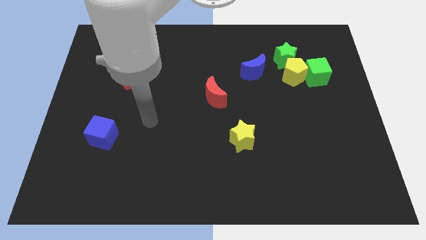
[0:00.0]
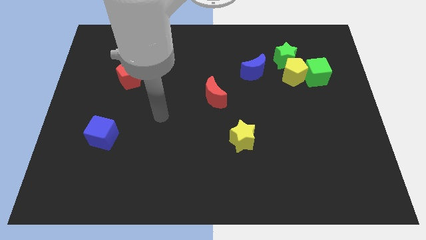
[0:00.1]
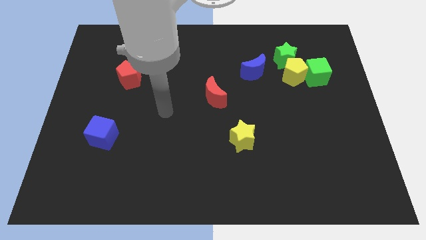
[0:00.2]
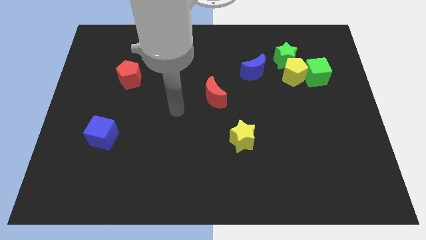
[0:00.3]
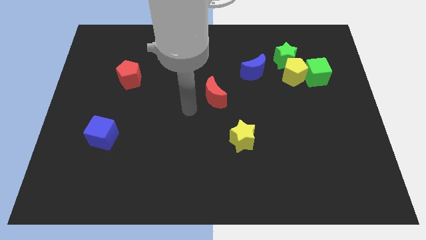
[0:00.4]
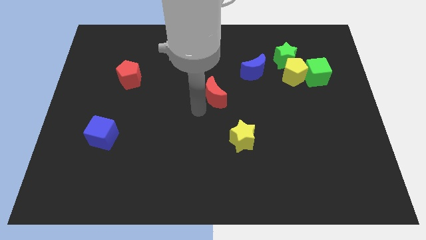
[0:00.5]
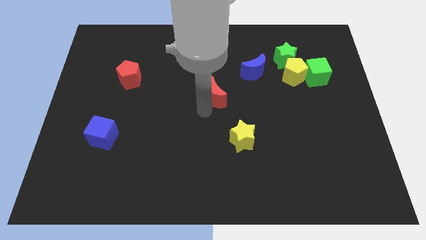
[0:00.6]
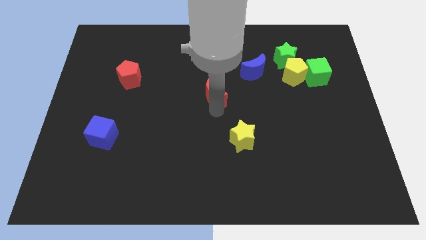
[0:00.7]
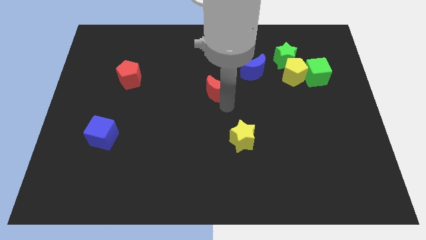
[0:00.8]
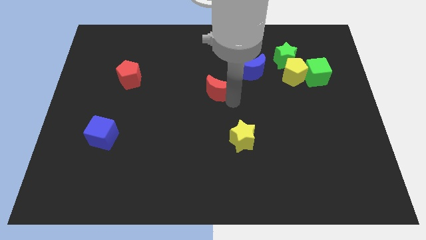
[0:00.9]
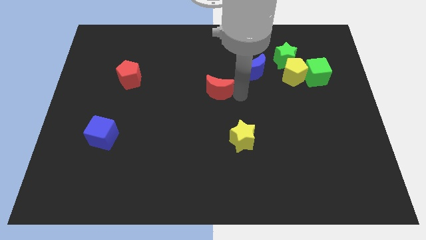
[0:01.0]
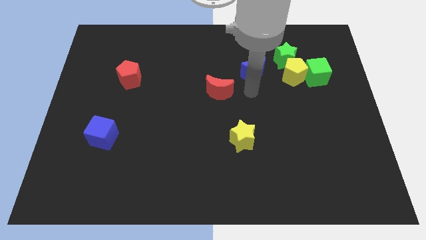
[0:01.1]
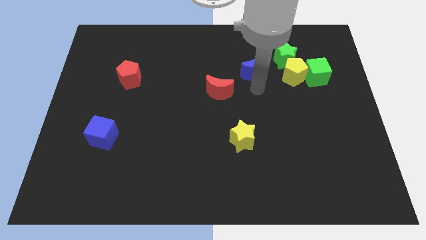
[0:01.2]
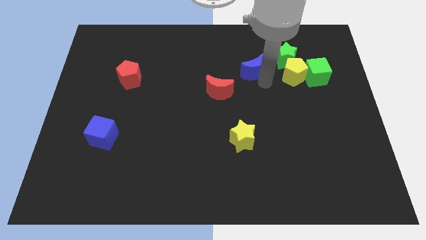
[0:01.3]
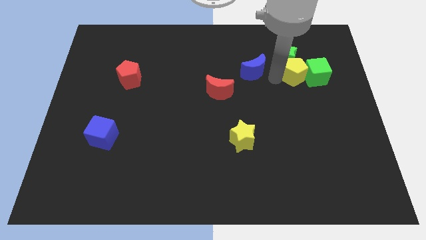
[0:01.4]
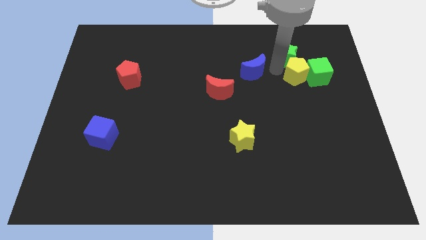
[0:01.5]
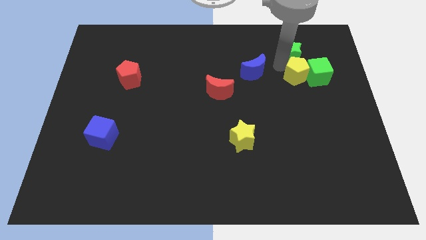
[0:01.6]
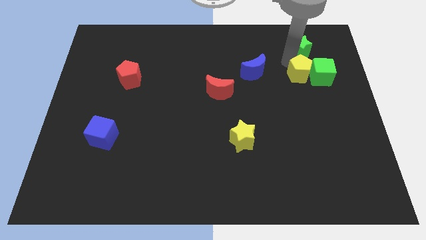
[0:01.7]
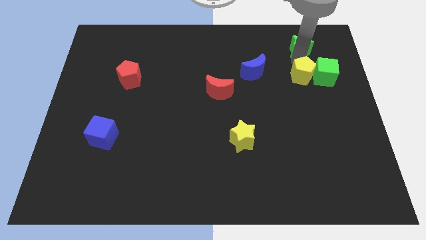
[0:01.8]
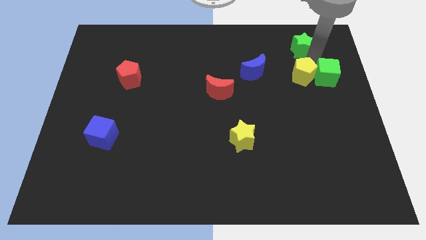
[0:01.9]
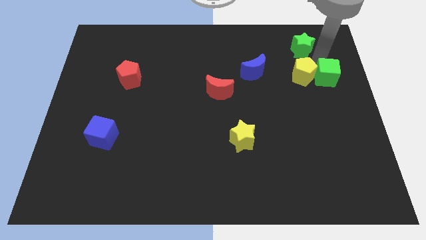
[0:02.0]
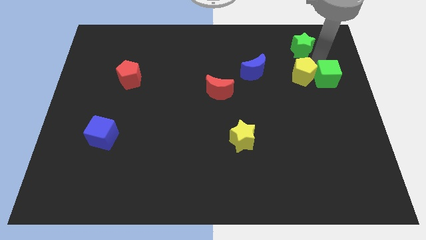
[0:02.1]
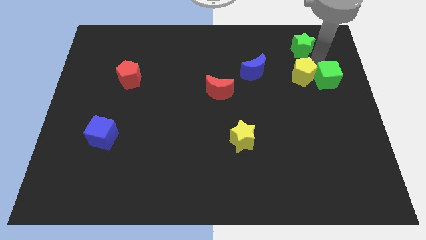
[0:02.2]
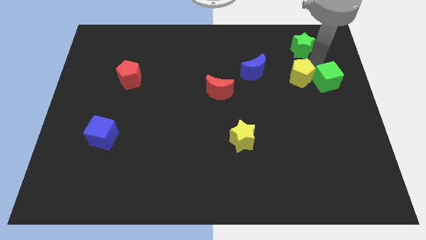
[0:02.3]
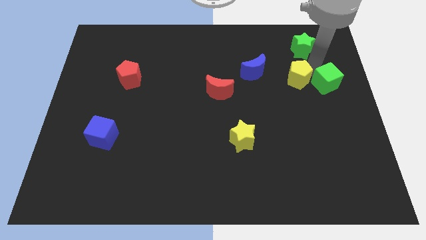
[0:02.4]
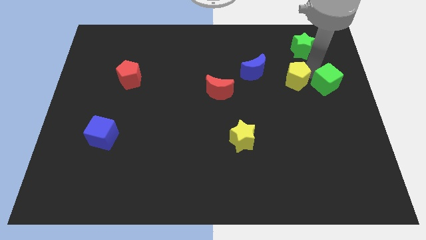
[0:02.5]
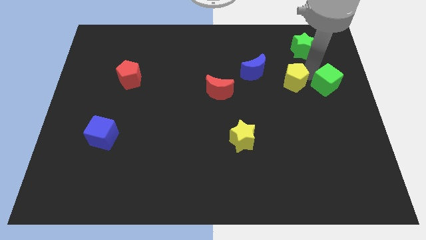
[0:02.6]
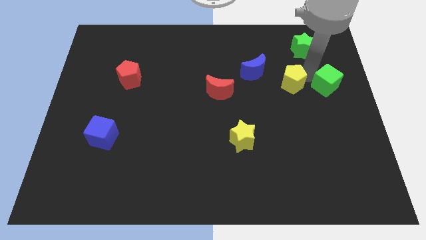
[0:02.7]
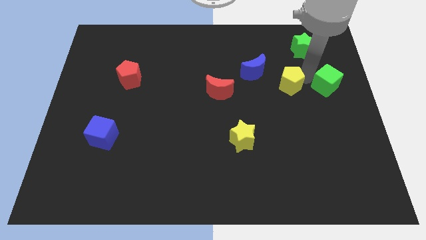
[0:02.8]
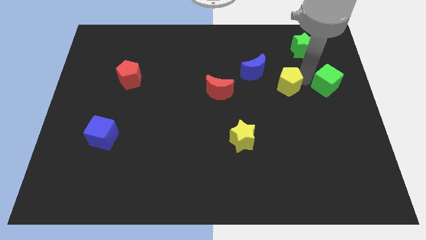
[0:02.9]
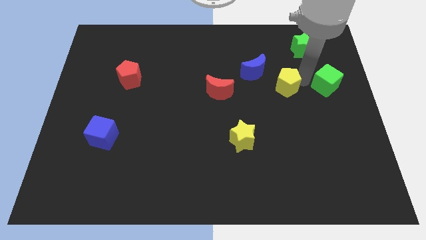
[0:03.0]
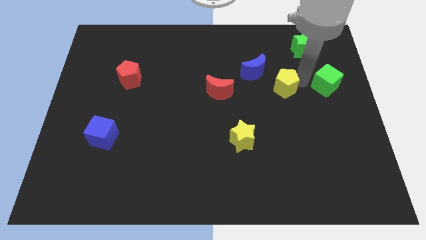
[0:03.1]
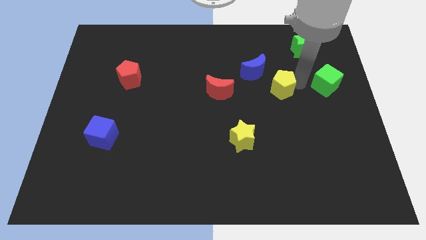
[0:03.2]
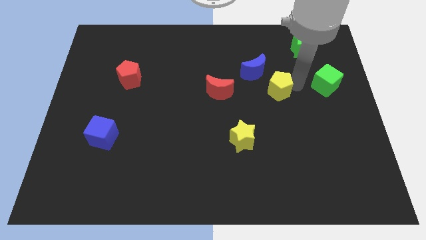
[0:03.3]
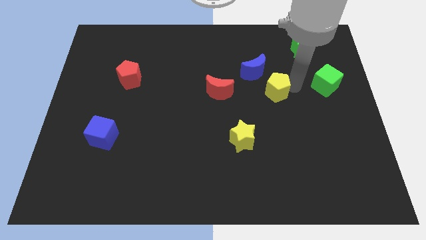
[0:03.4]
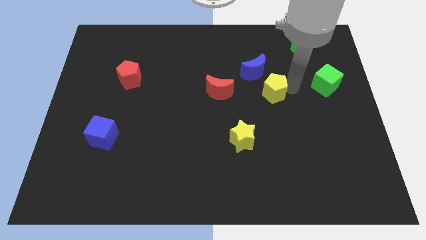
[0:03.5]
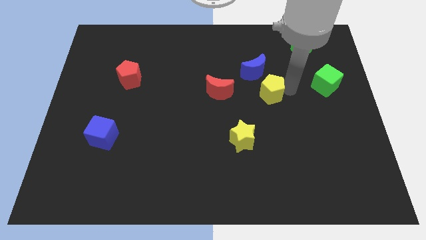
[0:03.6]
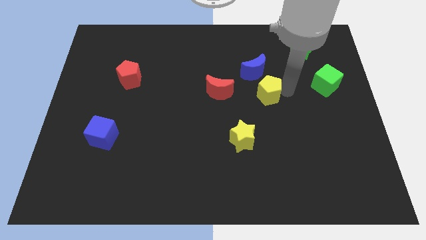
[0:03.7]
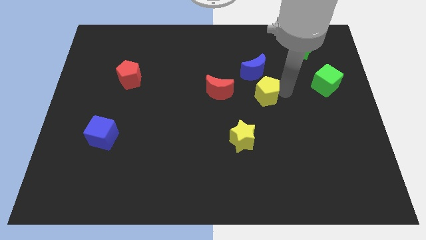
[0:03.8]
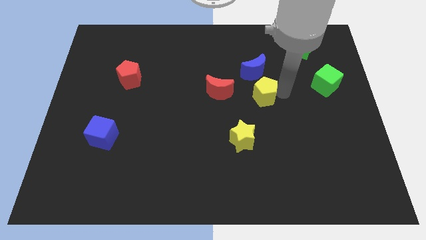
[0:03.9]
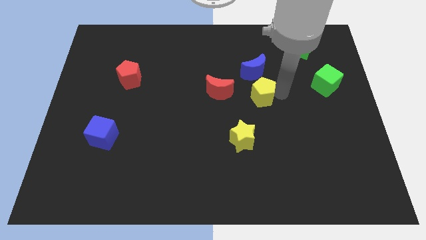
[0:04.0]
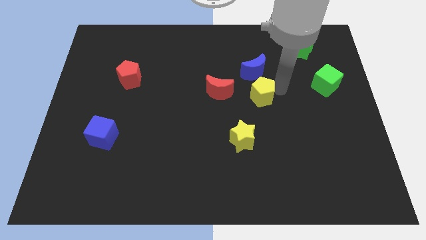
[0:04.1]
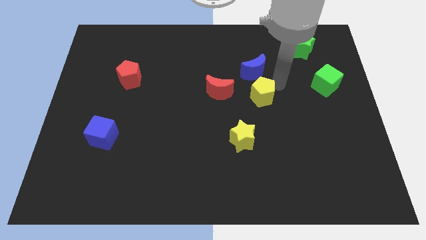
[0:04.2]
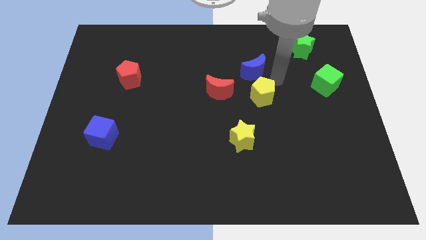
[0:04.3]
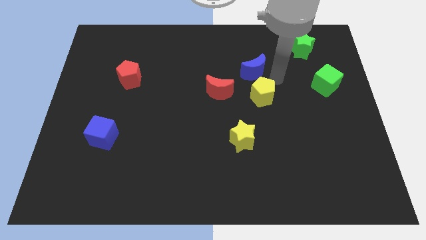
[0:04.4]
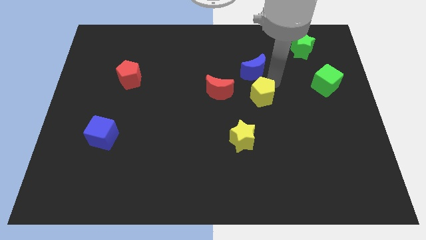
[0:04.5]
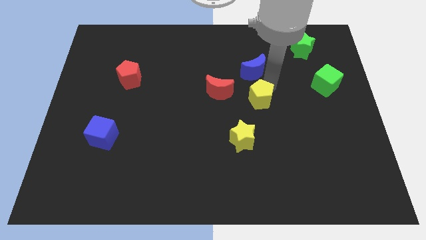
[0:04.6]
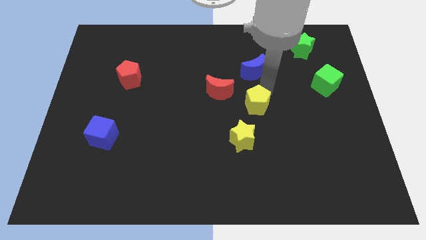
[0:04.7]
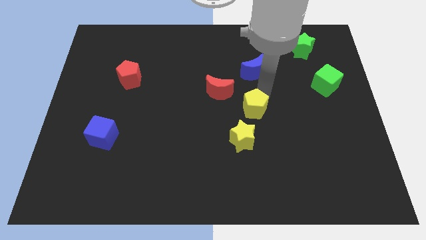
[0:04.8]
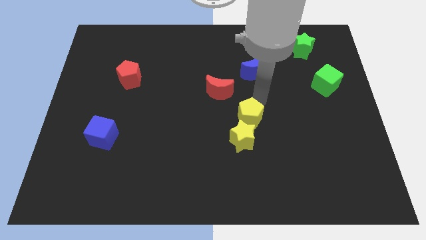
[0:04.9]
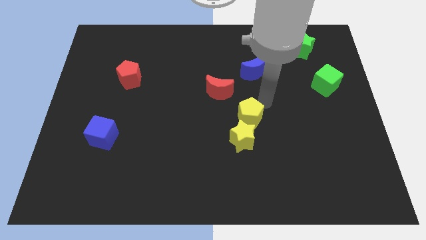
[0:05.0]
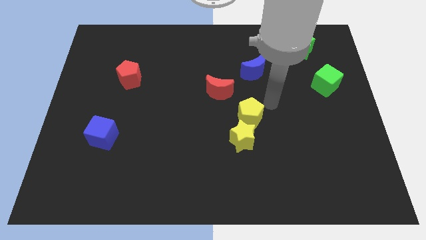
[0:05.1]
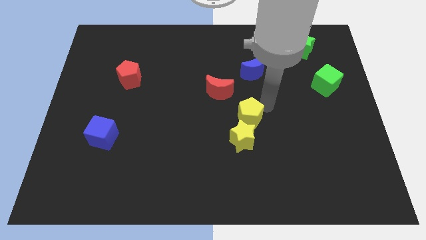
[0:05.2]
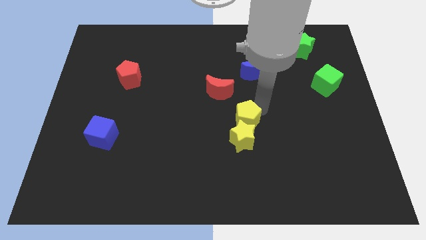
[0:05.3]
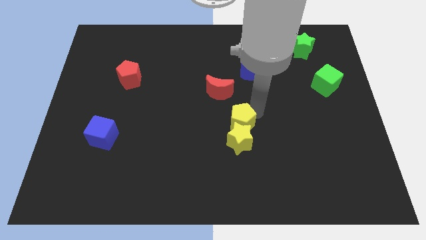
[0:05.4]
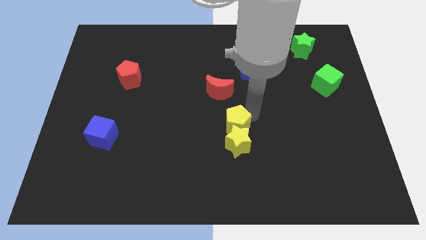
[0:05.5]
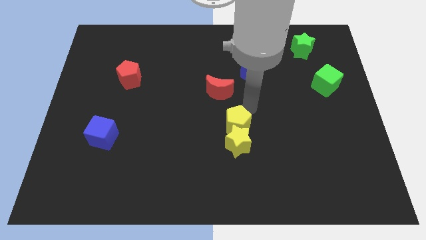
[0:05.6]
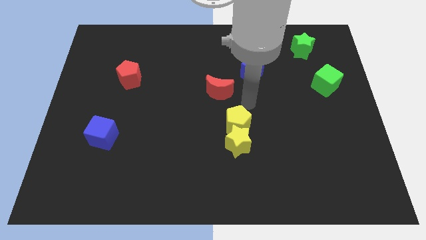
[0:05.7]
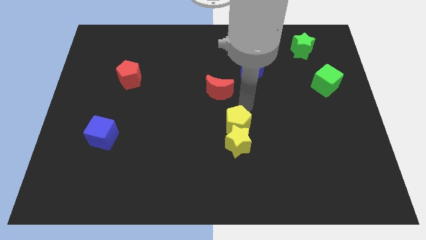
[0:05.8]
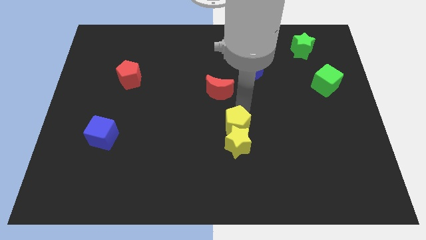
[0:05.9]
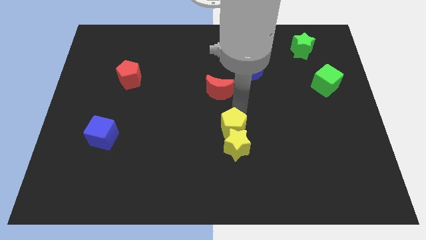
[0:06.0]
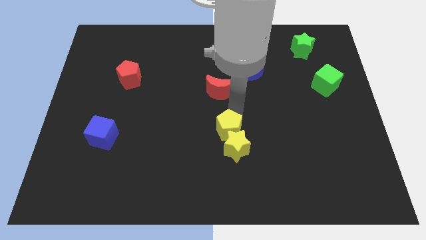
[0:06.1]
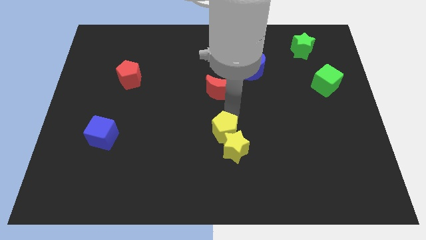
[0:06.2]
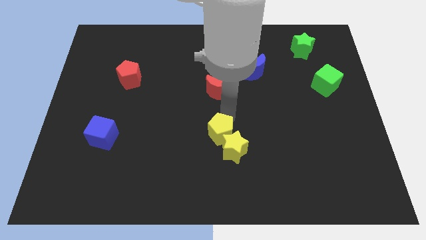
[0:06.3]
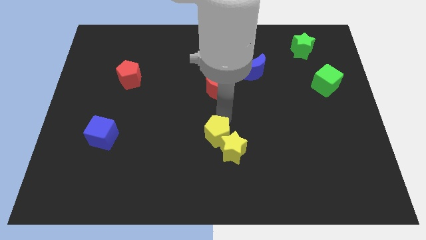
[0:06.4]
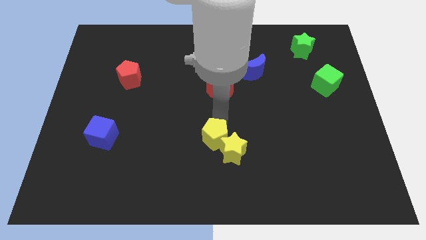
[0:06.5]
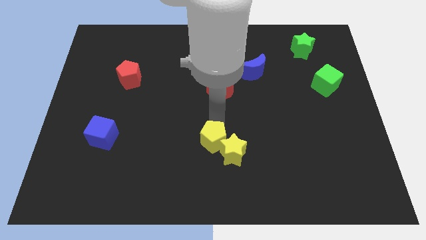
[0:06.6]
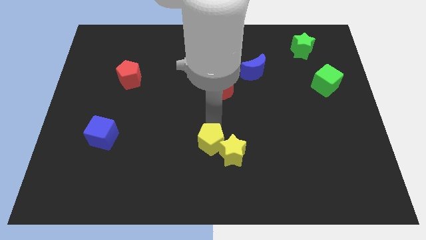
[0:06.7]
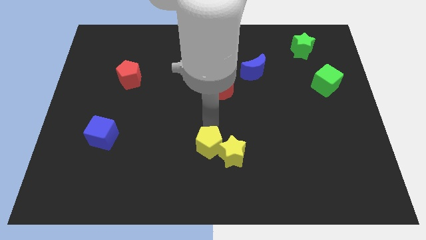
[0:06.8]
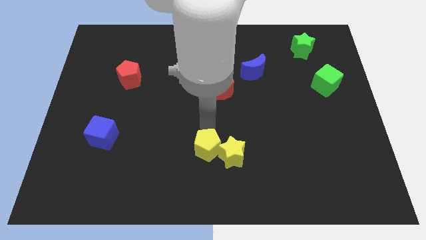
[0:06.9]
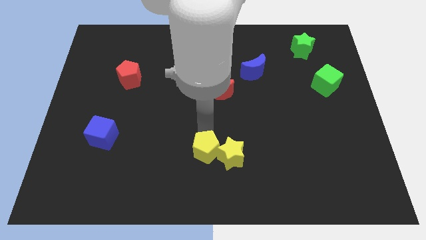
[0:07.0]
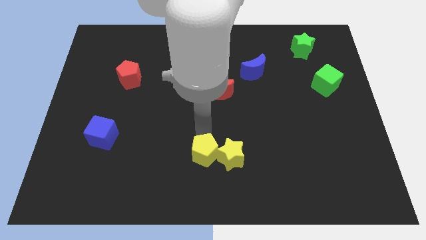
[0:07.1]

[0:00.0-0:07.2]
push the yellow pentagon diagonally down and to the left of the yellow star
